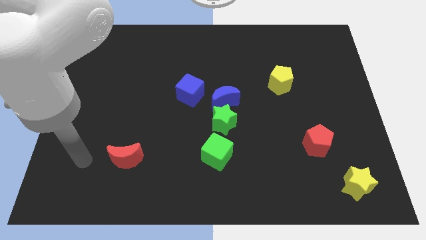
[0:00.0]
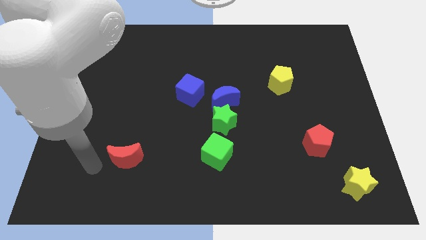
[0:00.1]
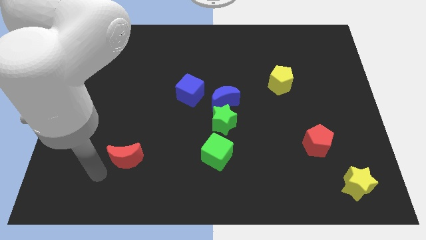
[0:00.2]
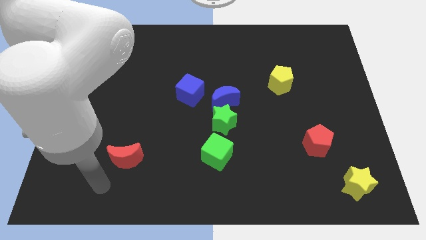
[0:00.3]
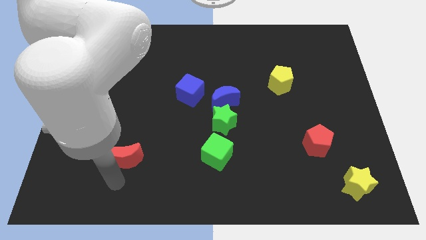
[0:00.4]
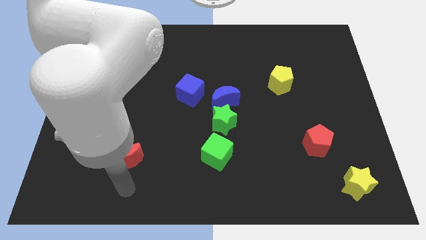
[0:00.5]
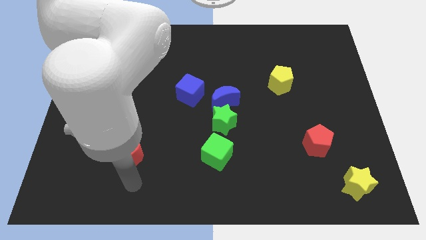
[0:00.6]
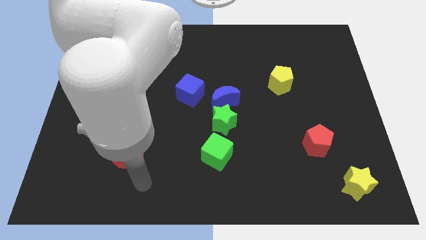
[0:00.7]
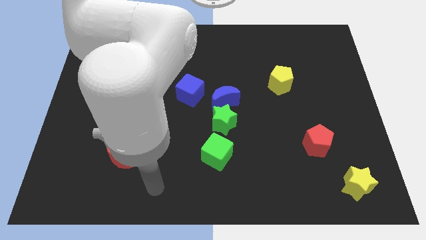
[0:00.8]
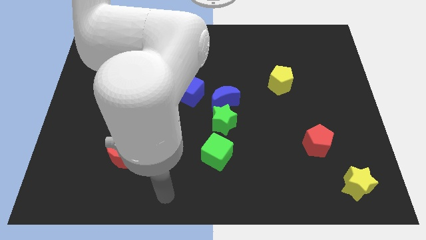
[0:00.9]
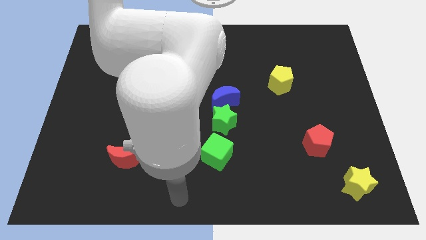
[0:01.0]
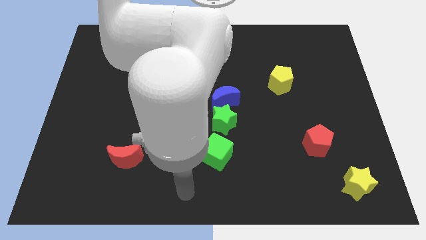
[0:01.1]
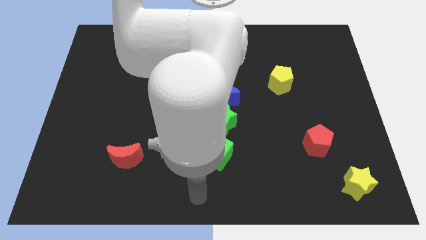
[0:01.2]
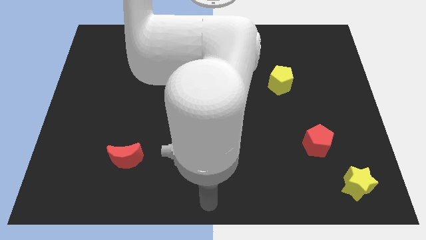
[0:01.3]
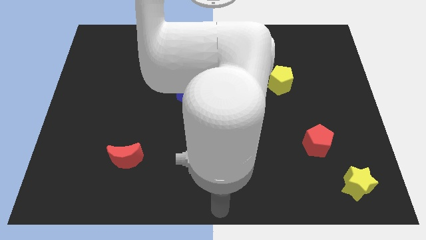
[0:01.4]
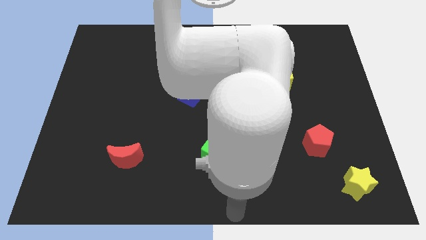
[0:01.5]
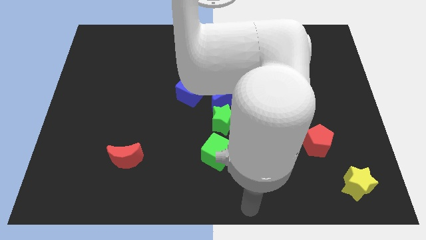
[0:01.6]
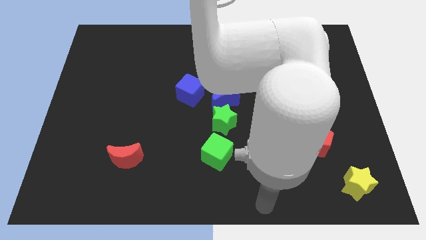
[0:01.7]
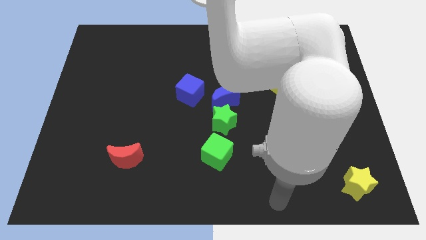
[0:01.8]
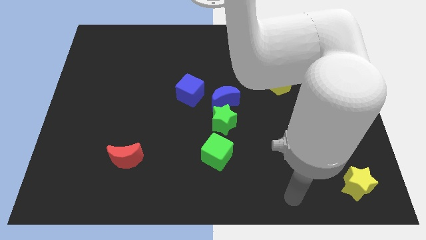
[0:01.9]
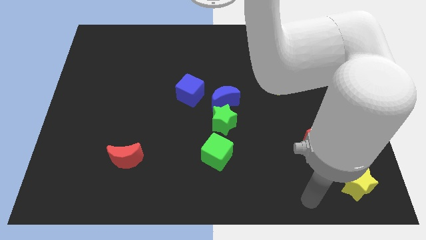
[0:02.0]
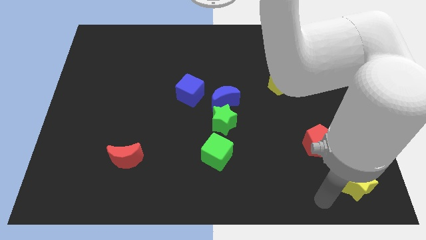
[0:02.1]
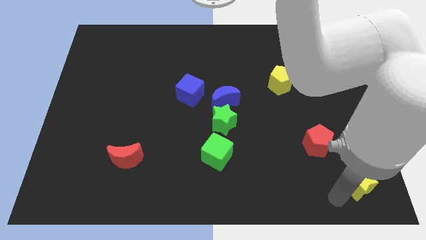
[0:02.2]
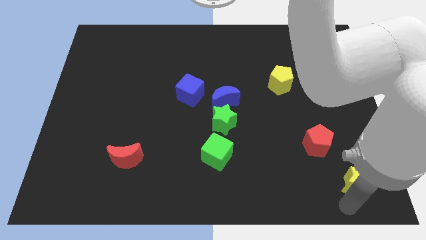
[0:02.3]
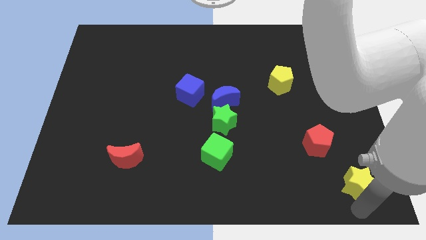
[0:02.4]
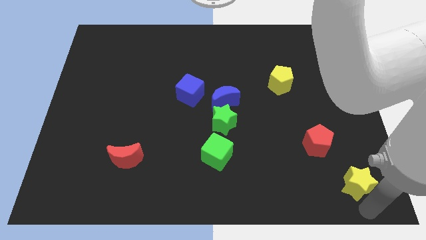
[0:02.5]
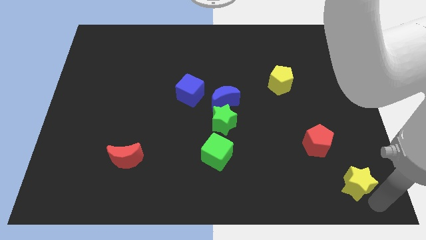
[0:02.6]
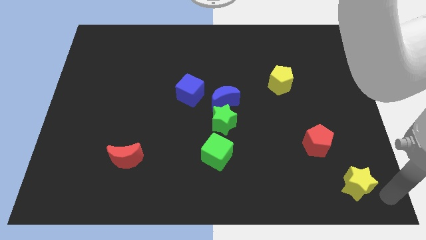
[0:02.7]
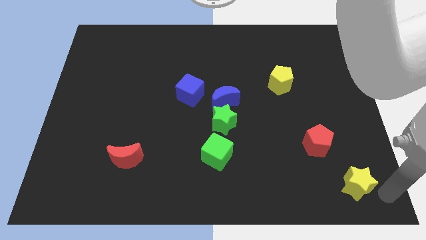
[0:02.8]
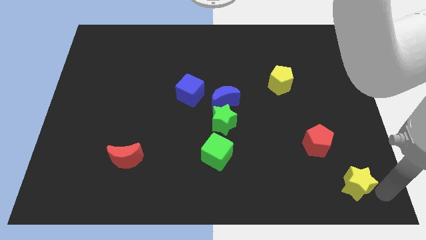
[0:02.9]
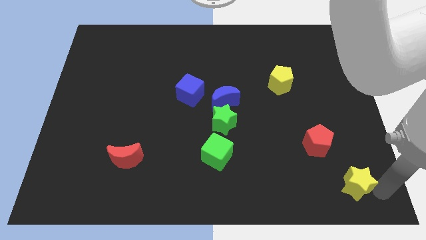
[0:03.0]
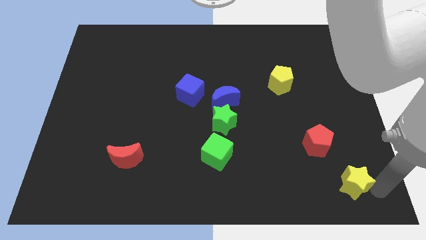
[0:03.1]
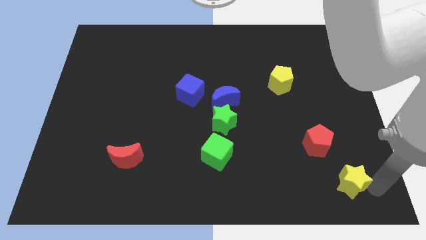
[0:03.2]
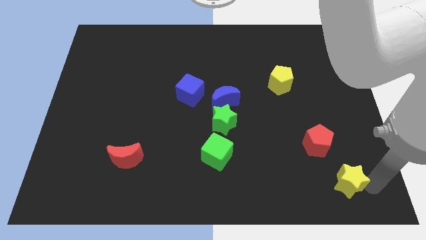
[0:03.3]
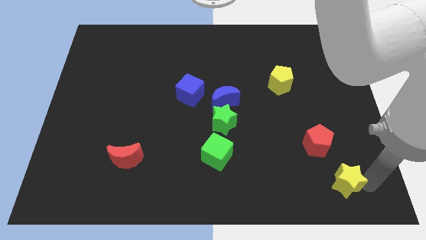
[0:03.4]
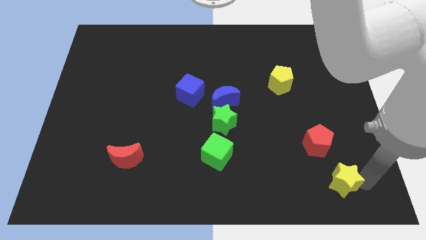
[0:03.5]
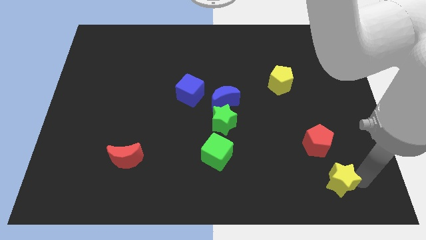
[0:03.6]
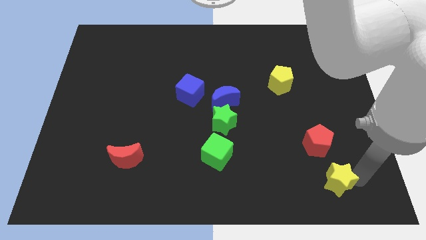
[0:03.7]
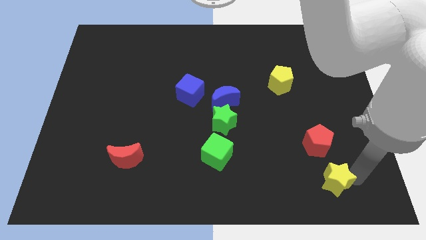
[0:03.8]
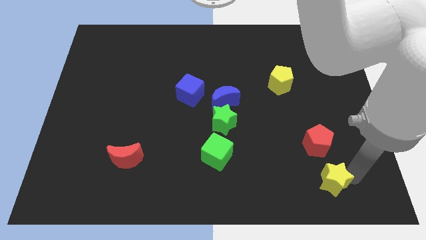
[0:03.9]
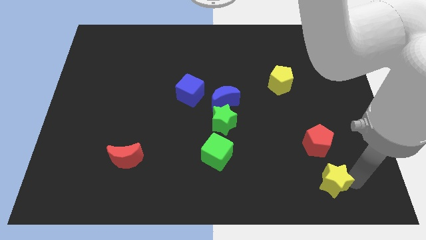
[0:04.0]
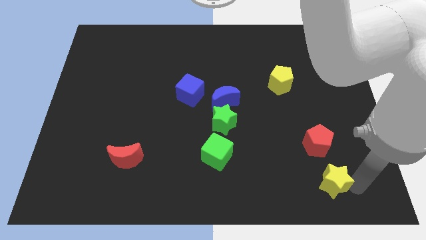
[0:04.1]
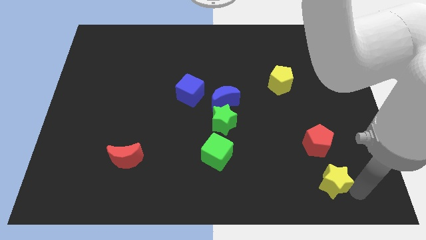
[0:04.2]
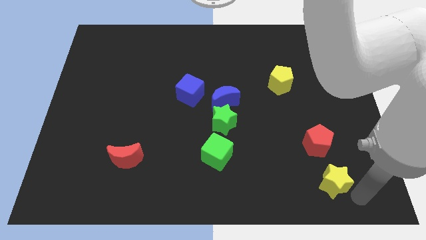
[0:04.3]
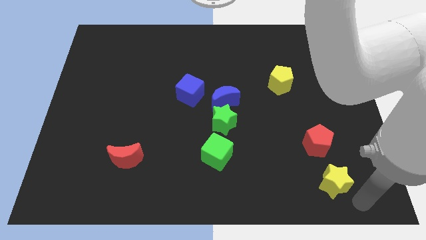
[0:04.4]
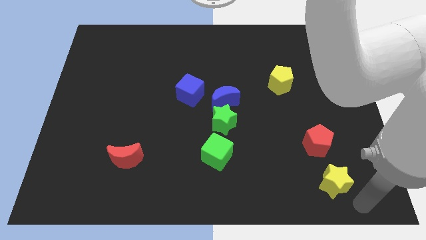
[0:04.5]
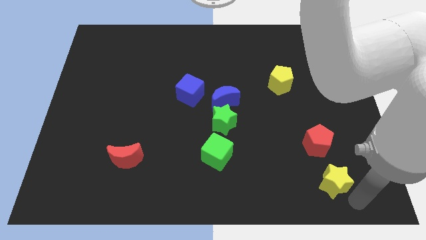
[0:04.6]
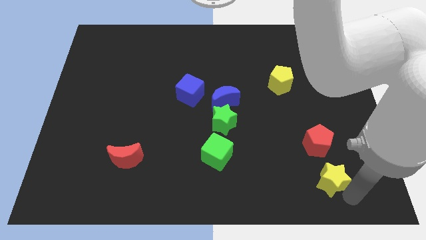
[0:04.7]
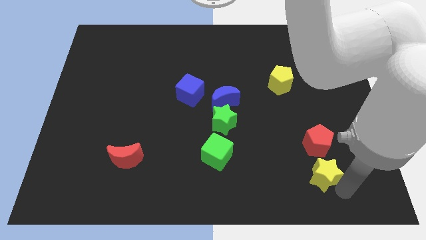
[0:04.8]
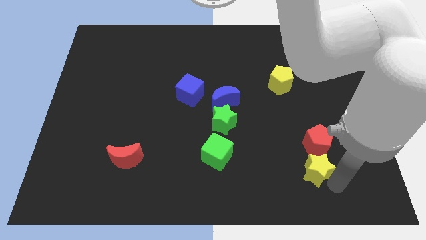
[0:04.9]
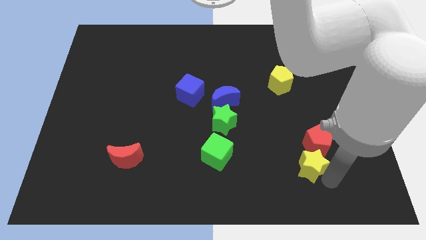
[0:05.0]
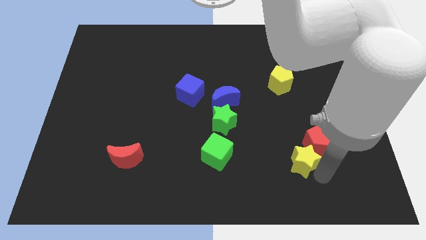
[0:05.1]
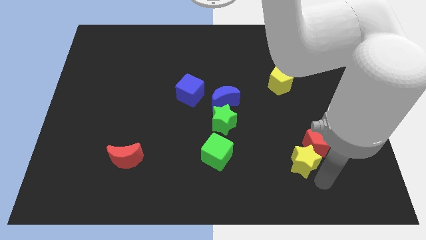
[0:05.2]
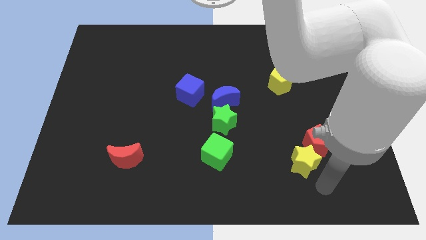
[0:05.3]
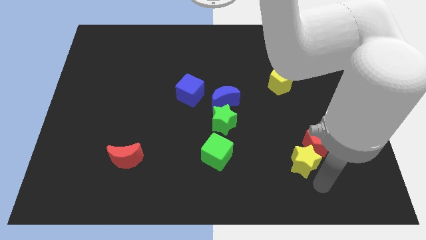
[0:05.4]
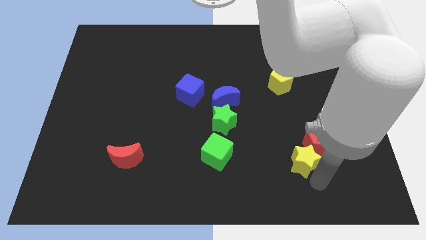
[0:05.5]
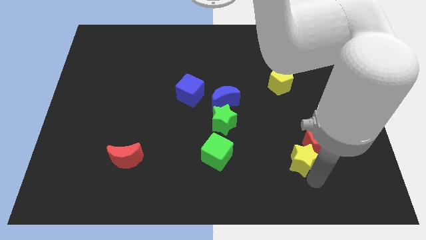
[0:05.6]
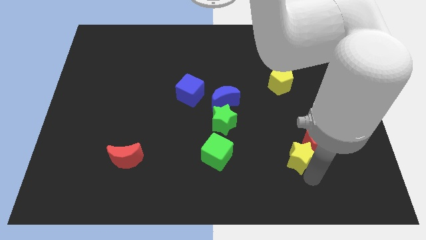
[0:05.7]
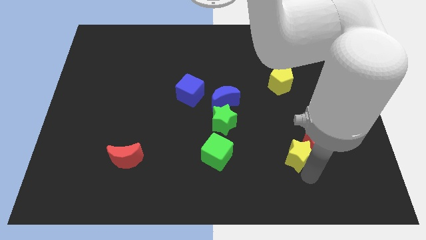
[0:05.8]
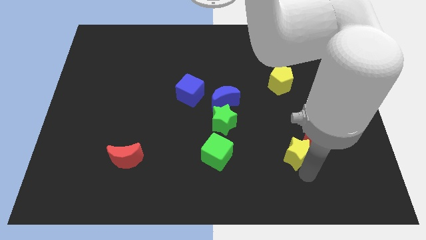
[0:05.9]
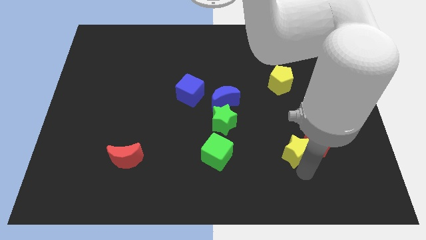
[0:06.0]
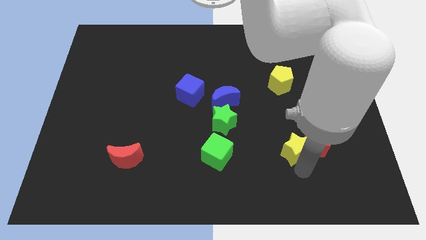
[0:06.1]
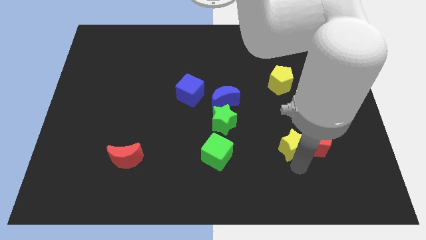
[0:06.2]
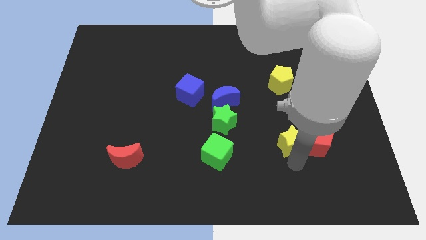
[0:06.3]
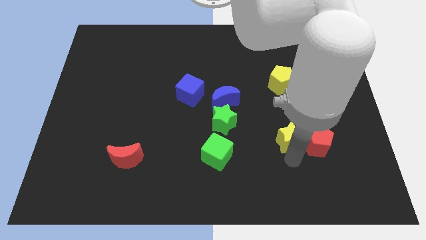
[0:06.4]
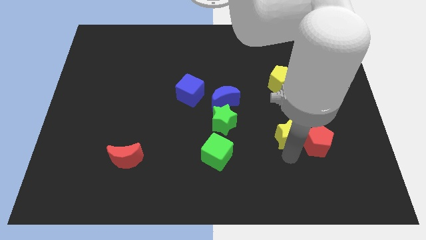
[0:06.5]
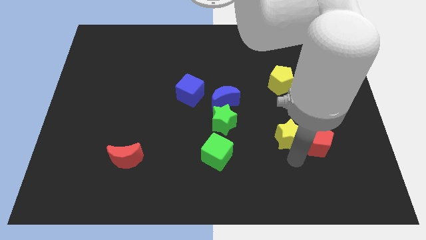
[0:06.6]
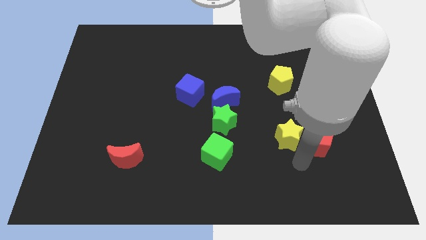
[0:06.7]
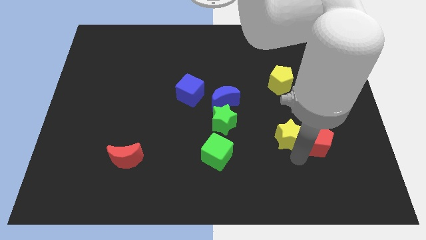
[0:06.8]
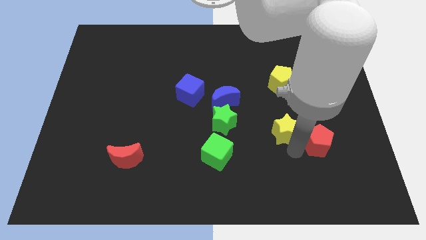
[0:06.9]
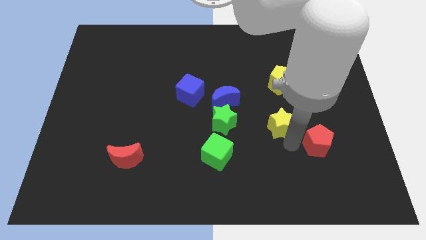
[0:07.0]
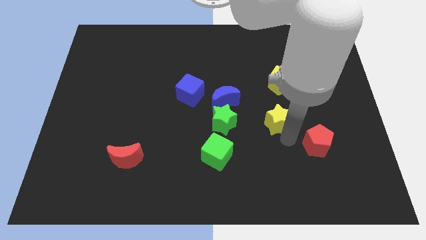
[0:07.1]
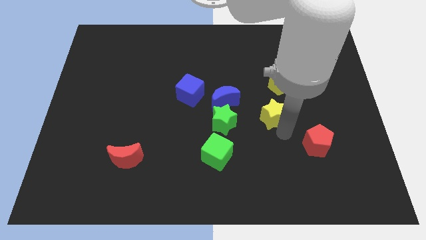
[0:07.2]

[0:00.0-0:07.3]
slide the yellow star to the right side of the blue moon
